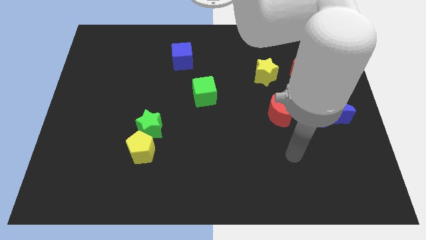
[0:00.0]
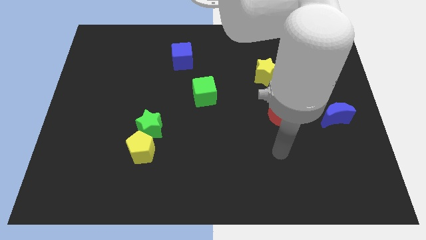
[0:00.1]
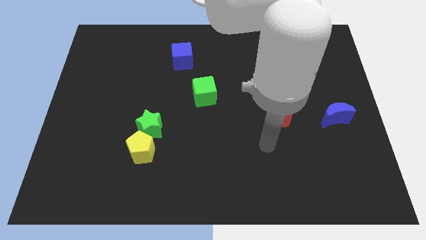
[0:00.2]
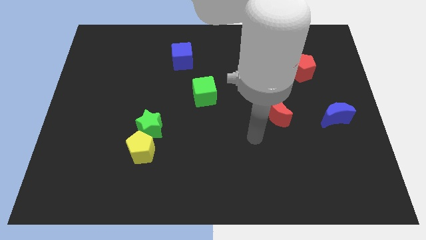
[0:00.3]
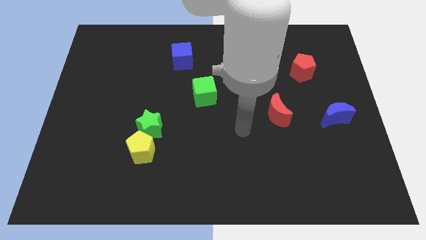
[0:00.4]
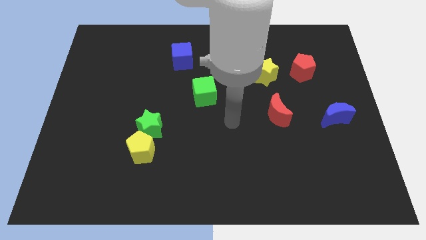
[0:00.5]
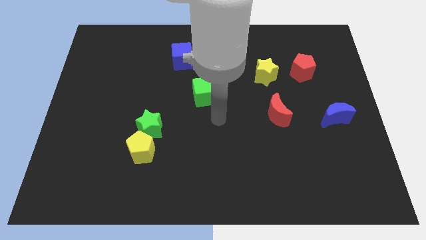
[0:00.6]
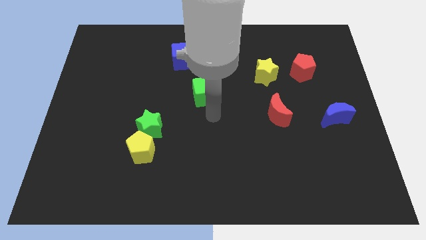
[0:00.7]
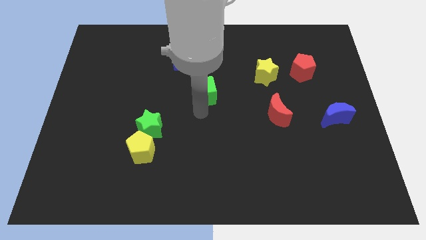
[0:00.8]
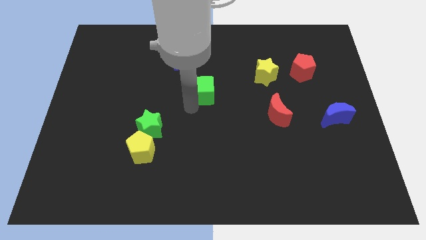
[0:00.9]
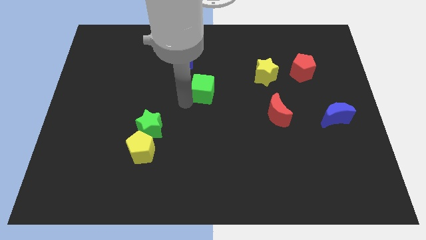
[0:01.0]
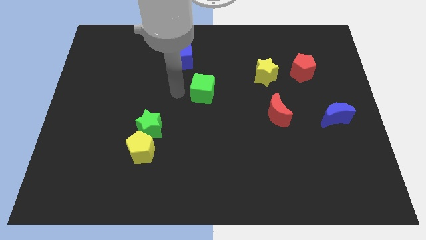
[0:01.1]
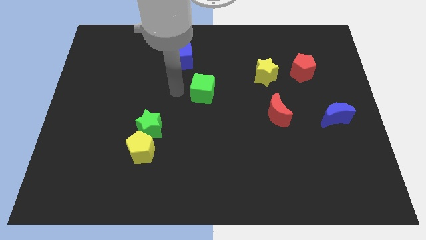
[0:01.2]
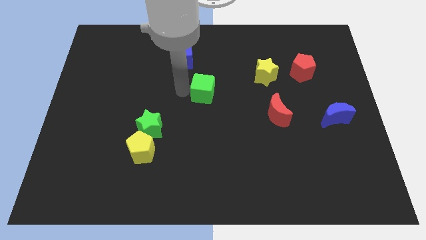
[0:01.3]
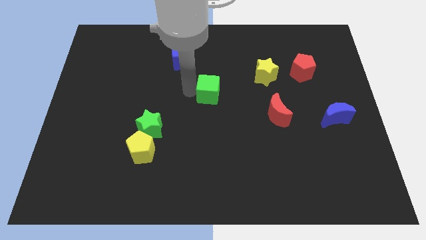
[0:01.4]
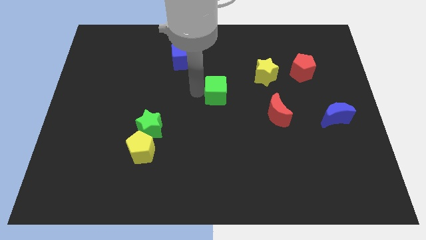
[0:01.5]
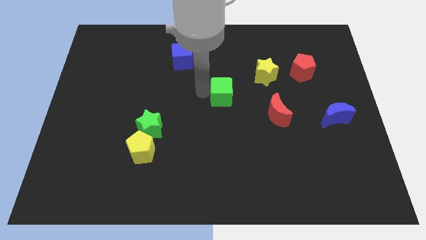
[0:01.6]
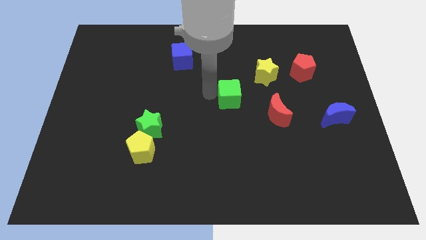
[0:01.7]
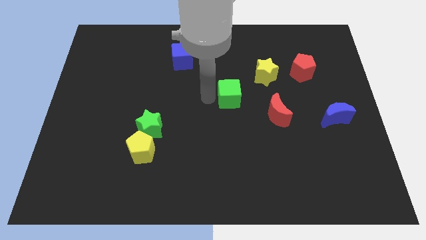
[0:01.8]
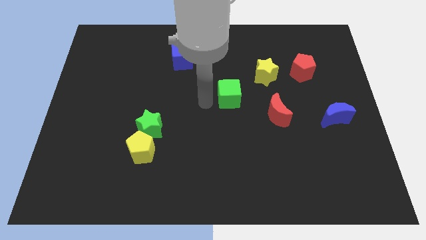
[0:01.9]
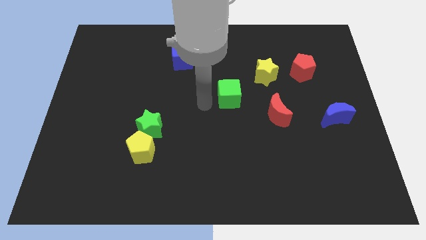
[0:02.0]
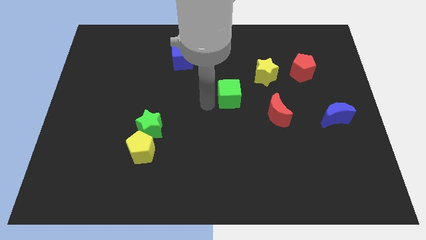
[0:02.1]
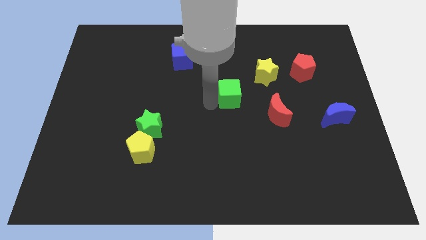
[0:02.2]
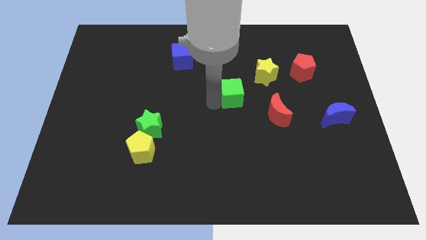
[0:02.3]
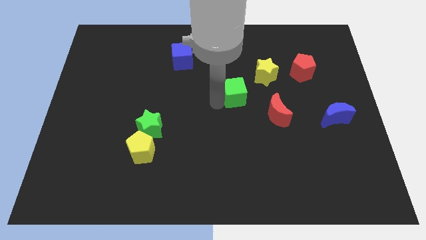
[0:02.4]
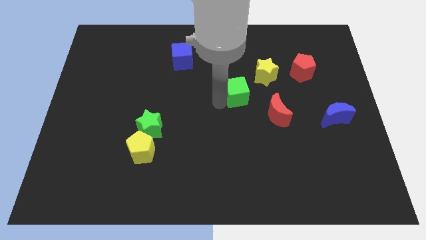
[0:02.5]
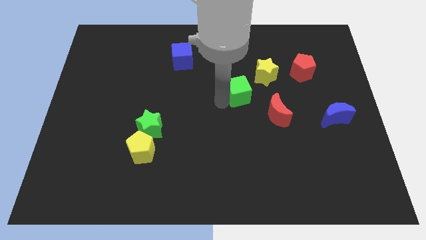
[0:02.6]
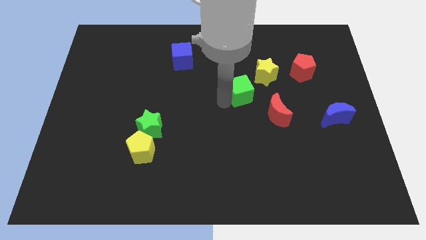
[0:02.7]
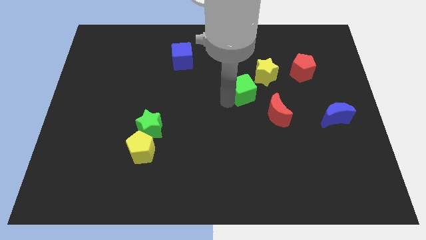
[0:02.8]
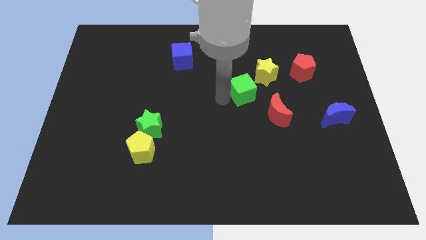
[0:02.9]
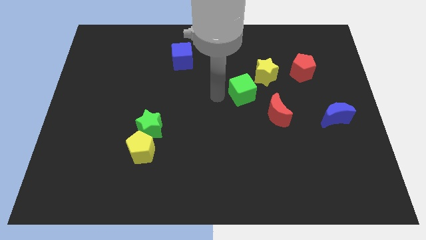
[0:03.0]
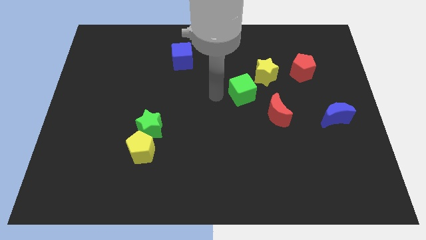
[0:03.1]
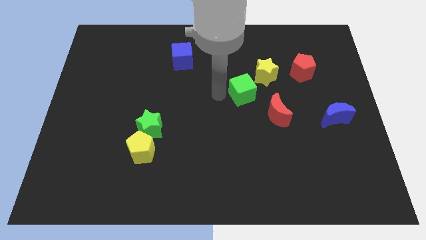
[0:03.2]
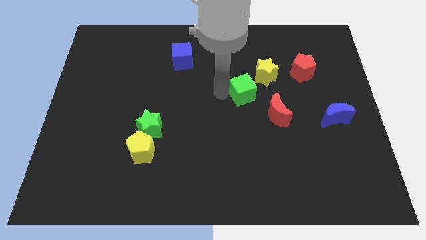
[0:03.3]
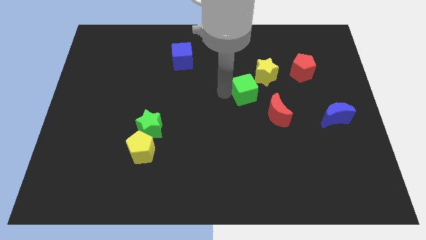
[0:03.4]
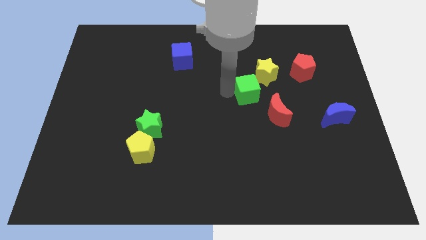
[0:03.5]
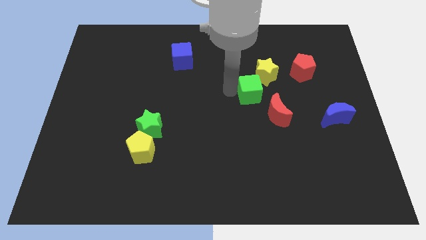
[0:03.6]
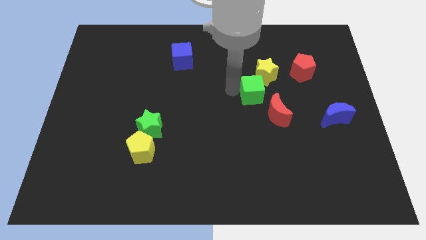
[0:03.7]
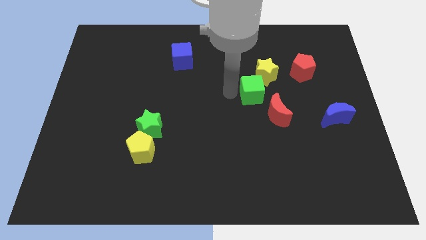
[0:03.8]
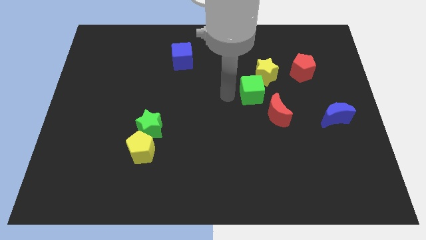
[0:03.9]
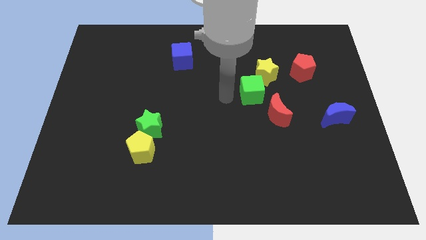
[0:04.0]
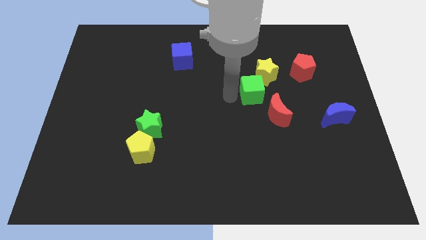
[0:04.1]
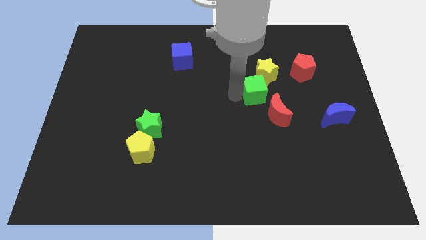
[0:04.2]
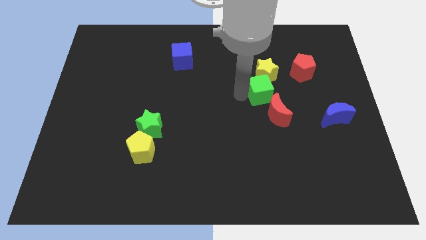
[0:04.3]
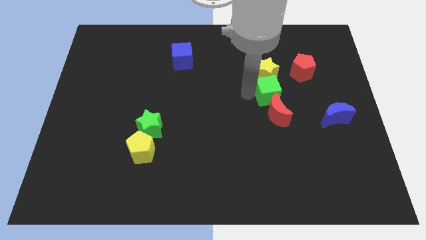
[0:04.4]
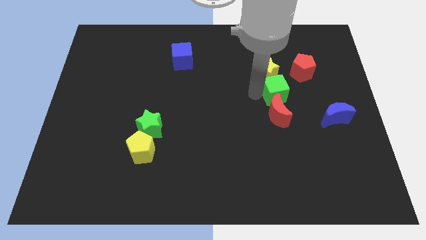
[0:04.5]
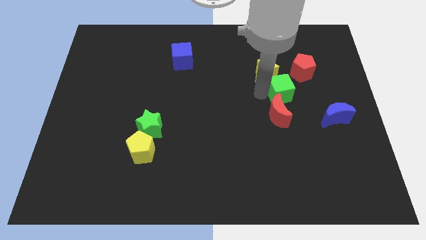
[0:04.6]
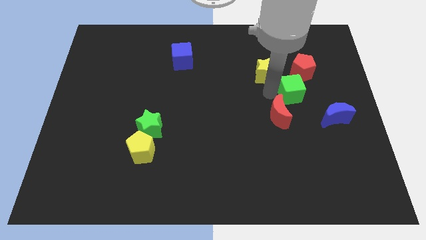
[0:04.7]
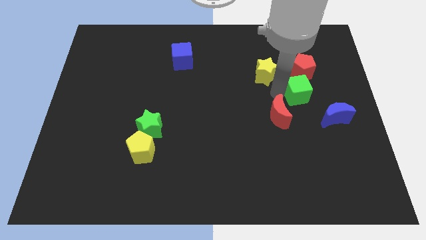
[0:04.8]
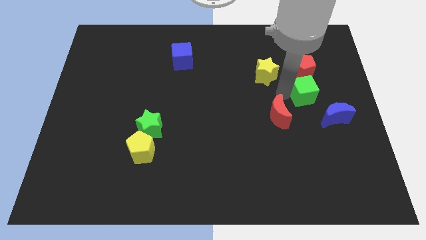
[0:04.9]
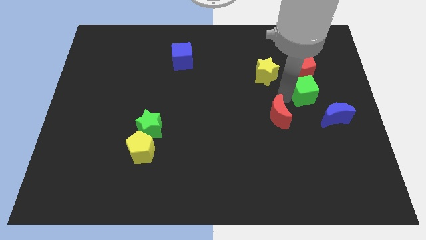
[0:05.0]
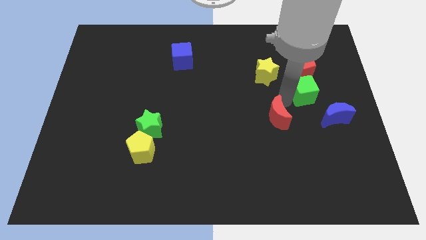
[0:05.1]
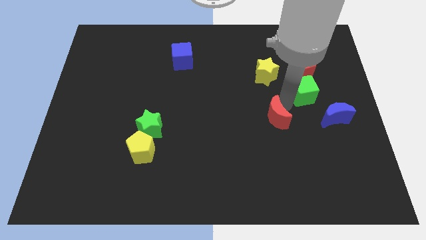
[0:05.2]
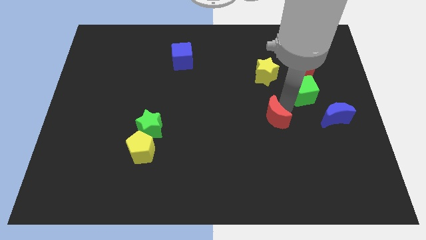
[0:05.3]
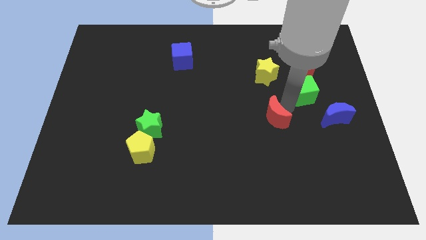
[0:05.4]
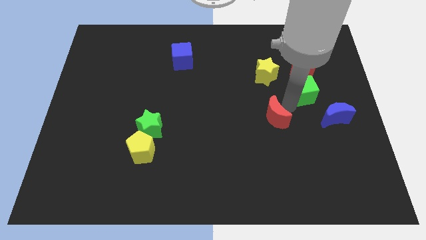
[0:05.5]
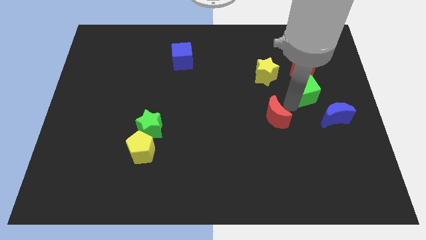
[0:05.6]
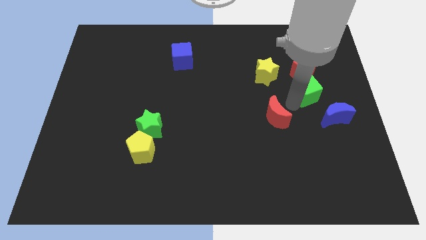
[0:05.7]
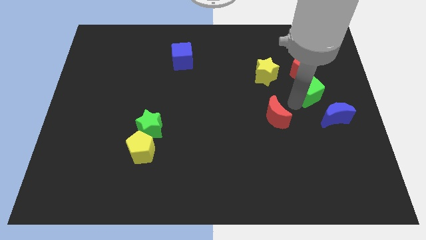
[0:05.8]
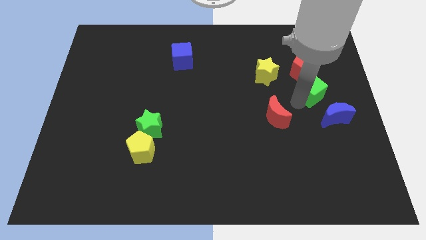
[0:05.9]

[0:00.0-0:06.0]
slide the green cube to the top of the blue moon
